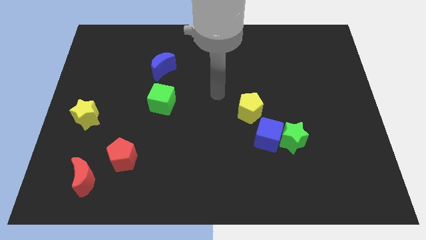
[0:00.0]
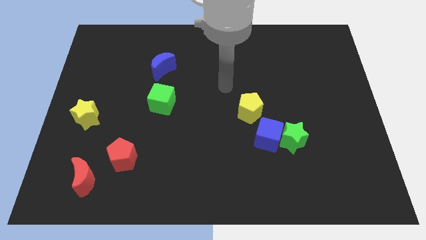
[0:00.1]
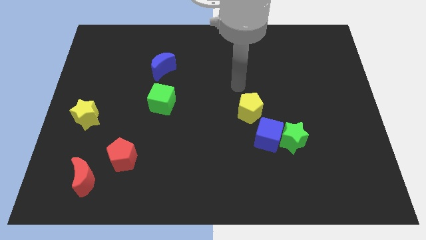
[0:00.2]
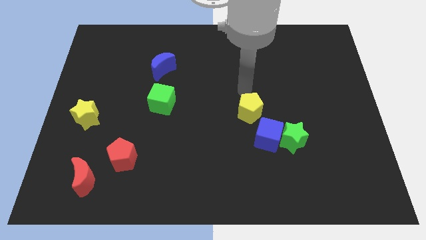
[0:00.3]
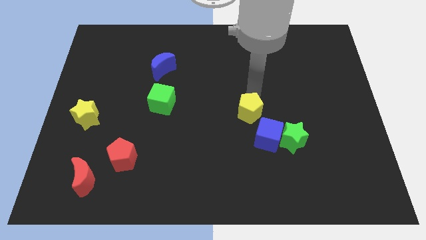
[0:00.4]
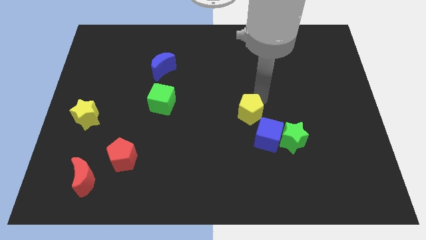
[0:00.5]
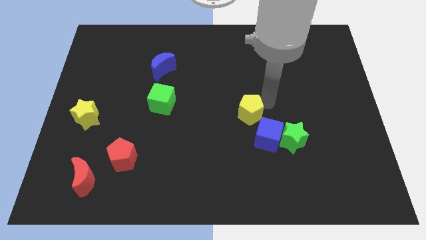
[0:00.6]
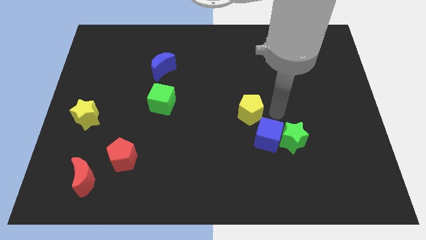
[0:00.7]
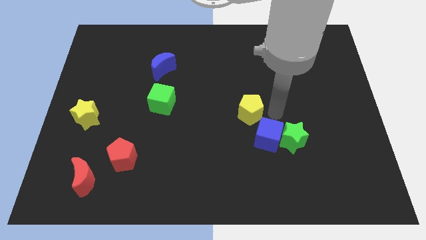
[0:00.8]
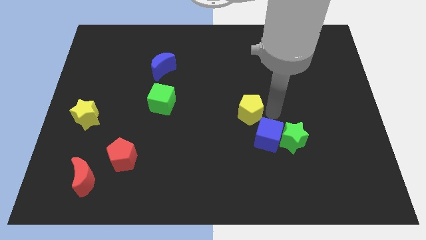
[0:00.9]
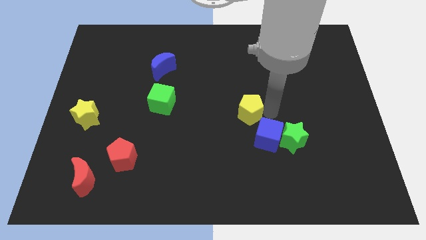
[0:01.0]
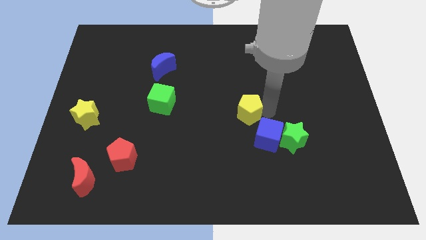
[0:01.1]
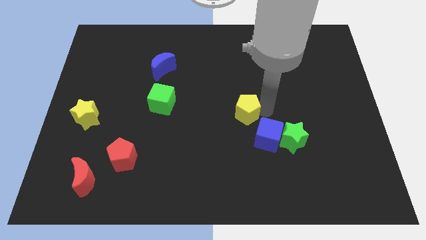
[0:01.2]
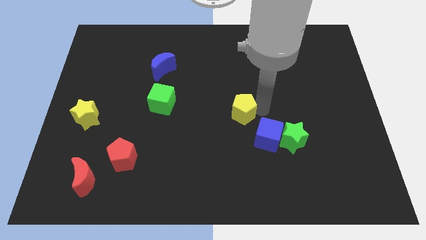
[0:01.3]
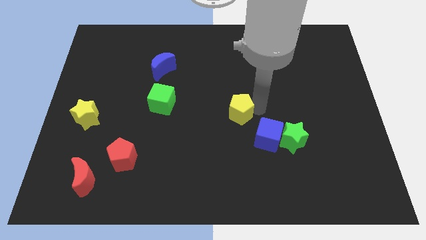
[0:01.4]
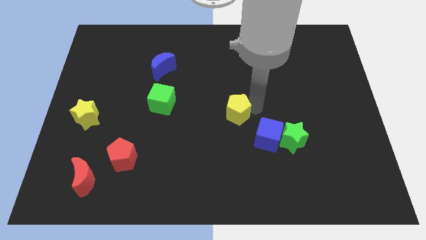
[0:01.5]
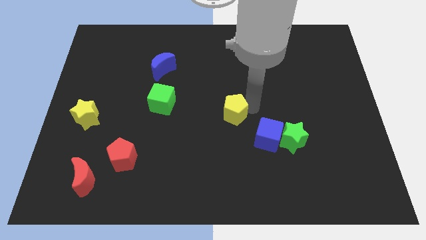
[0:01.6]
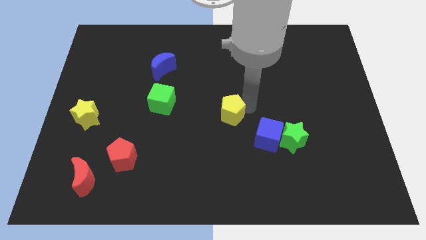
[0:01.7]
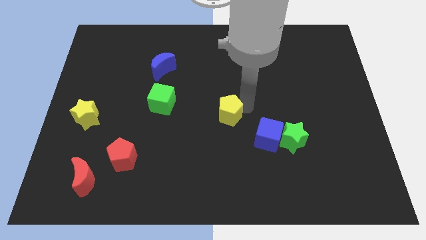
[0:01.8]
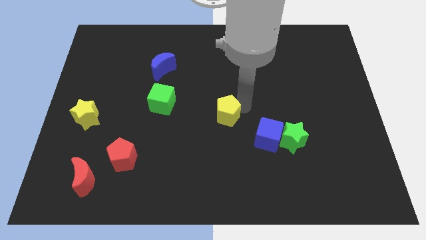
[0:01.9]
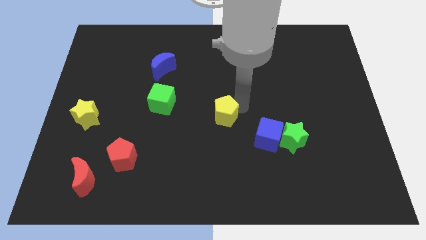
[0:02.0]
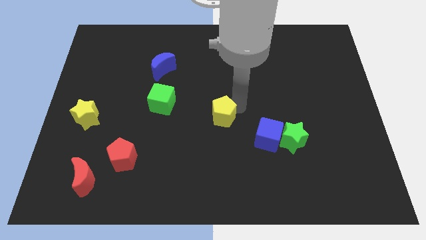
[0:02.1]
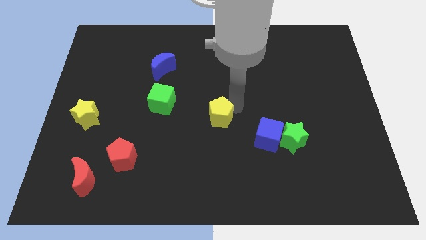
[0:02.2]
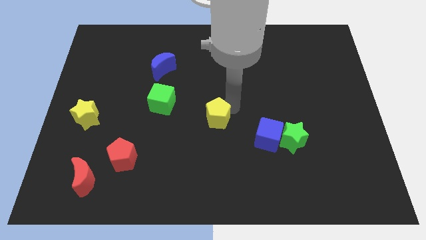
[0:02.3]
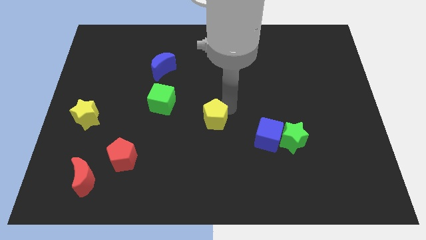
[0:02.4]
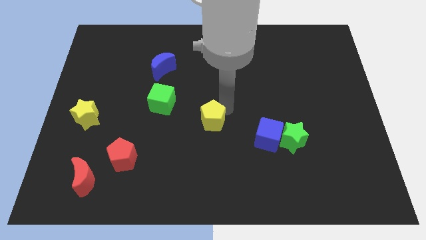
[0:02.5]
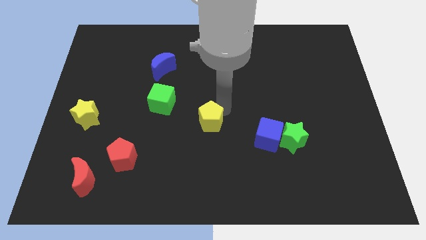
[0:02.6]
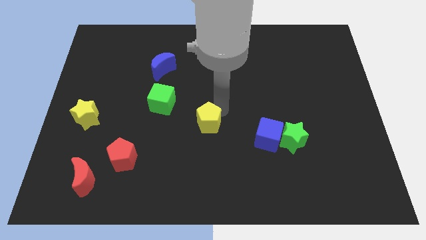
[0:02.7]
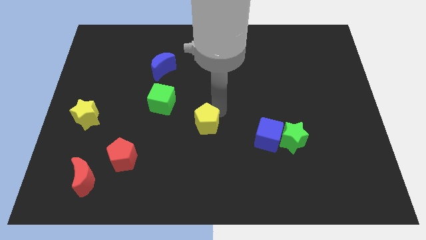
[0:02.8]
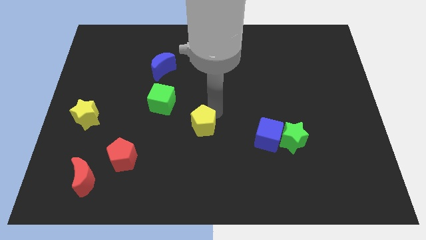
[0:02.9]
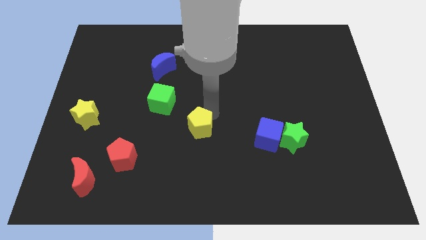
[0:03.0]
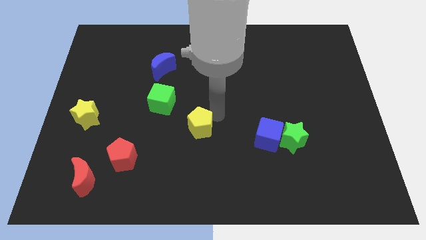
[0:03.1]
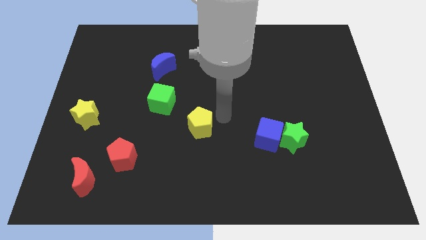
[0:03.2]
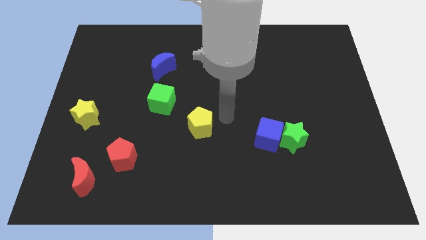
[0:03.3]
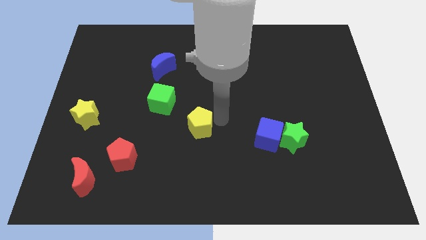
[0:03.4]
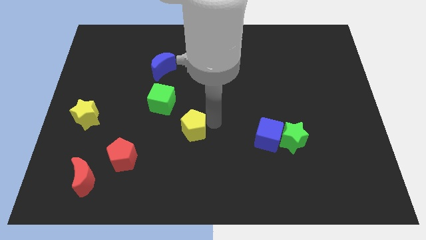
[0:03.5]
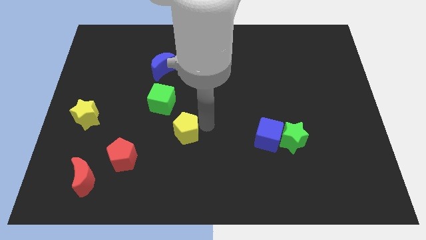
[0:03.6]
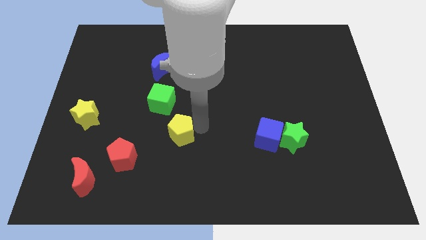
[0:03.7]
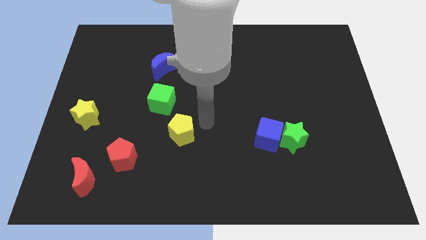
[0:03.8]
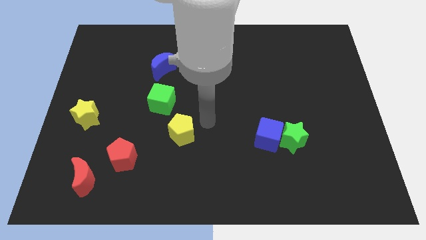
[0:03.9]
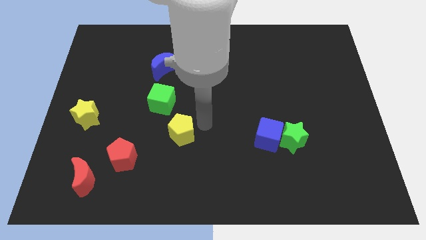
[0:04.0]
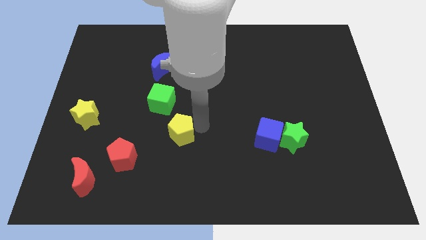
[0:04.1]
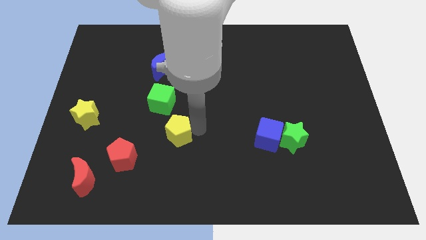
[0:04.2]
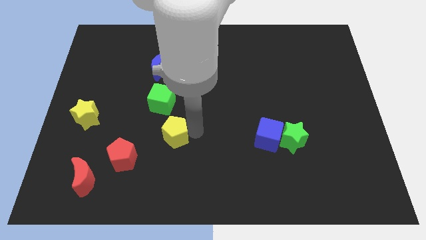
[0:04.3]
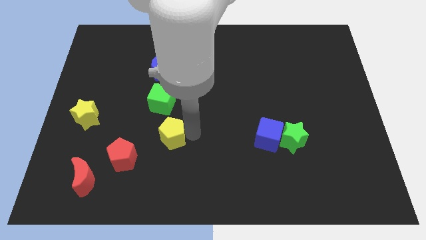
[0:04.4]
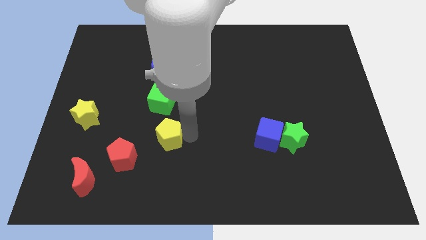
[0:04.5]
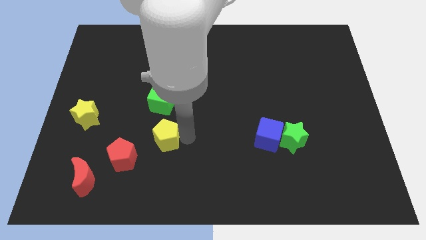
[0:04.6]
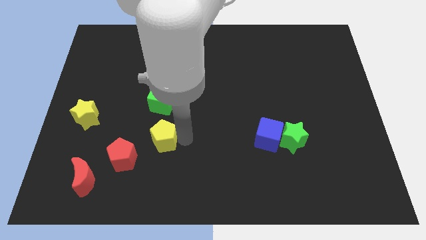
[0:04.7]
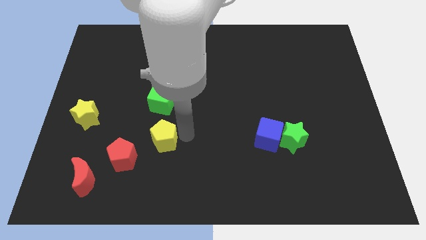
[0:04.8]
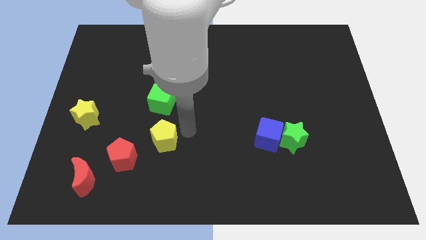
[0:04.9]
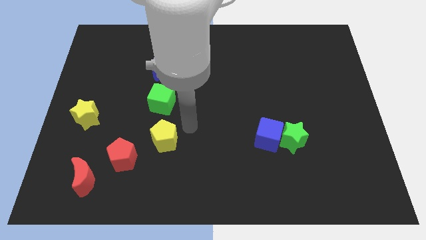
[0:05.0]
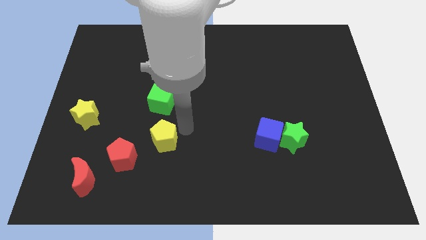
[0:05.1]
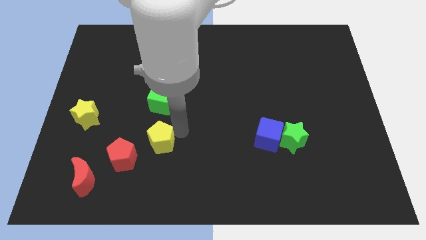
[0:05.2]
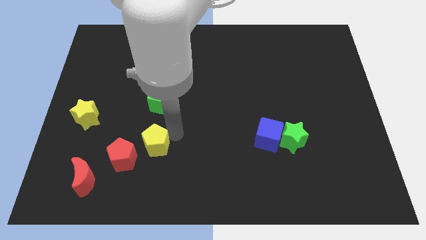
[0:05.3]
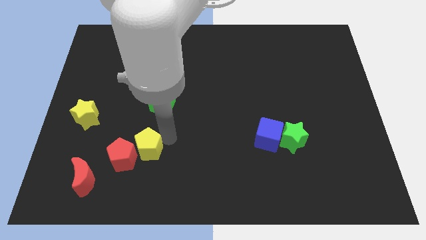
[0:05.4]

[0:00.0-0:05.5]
put the yellow pentagon to the red pentagon

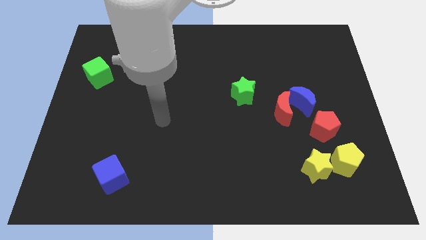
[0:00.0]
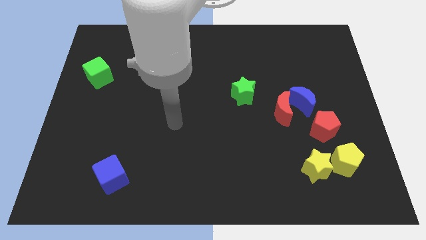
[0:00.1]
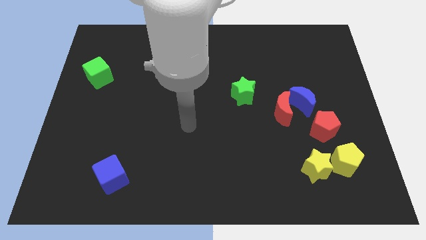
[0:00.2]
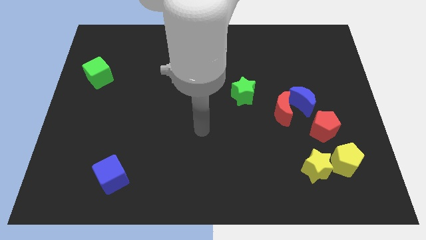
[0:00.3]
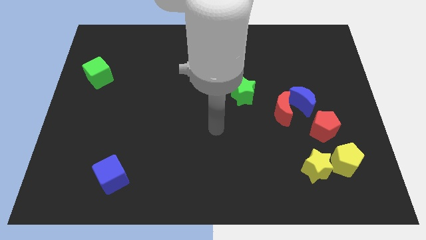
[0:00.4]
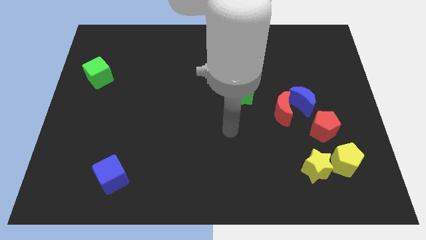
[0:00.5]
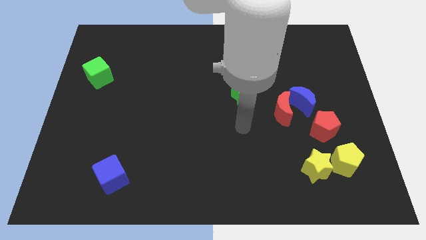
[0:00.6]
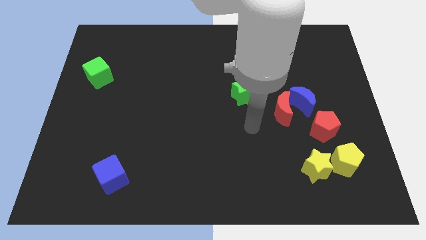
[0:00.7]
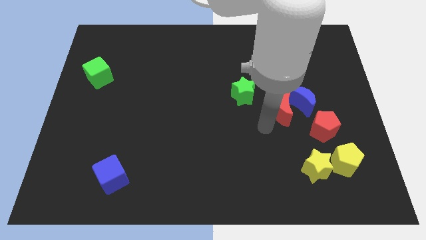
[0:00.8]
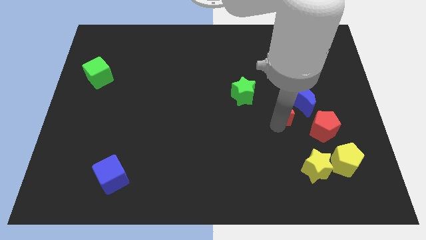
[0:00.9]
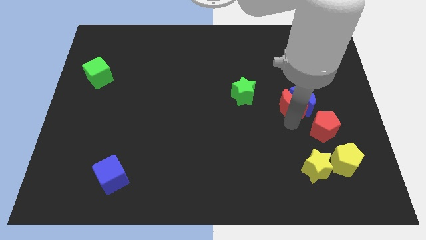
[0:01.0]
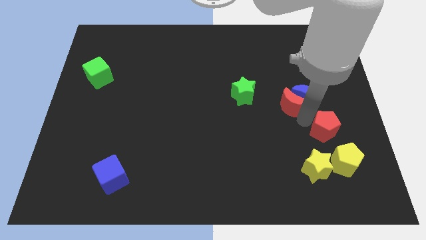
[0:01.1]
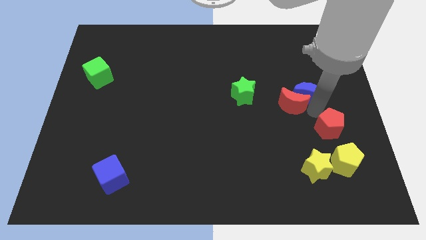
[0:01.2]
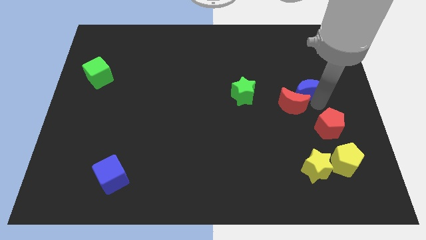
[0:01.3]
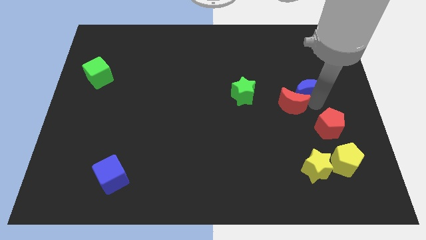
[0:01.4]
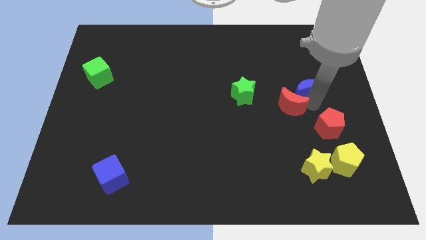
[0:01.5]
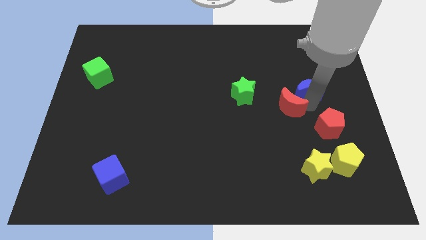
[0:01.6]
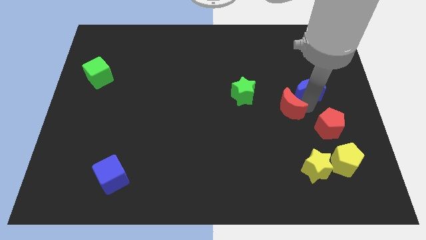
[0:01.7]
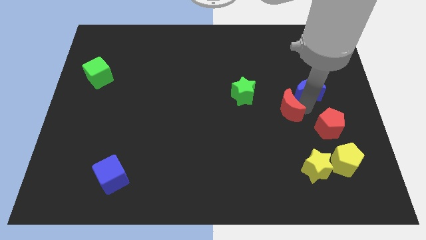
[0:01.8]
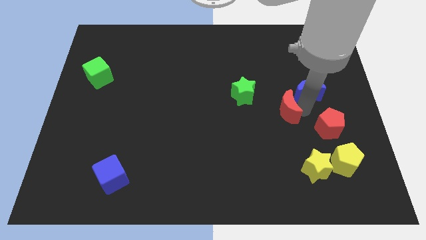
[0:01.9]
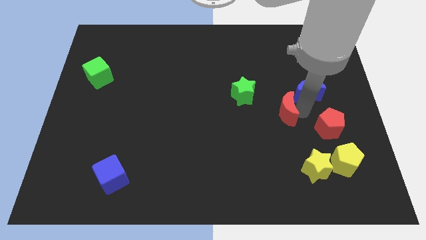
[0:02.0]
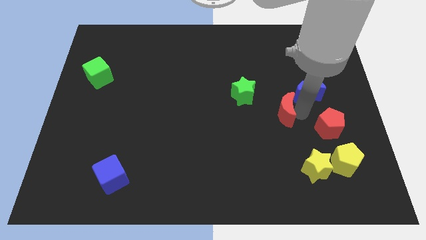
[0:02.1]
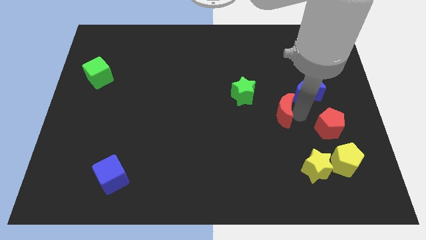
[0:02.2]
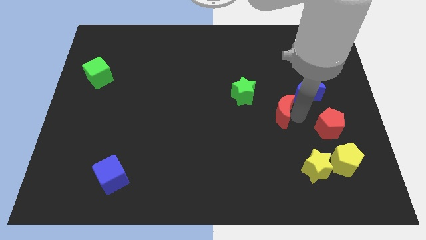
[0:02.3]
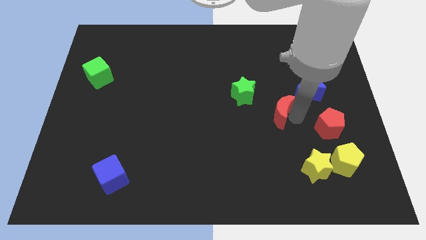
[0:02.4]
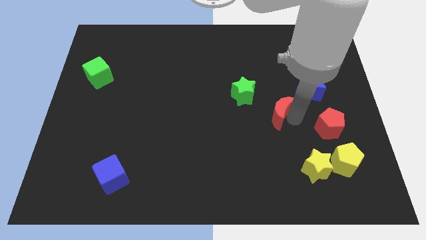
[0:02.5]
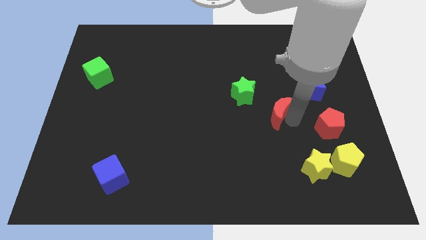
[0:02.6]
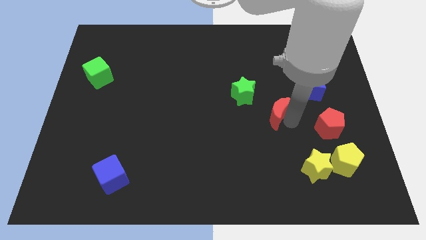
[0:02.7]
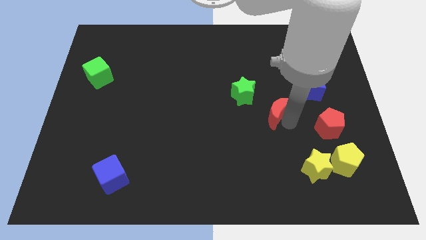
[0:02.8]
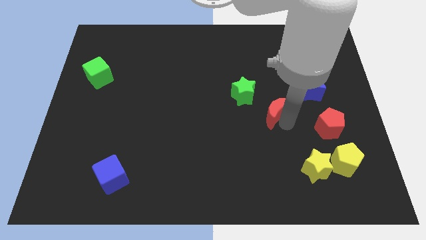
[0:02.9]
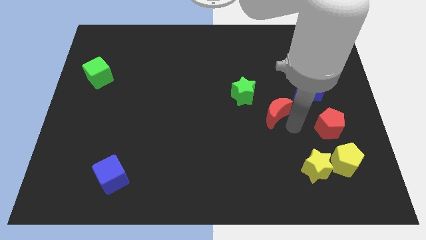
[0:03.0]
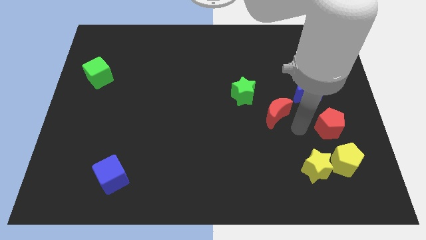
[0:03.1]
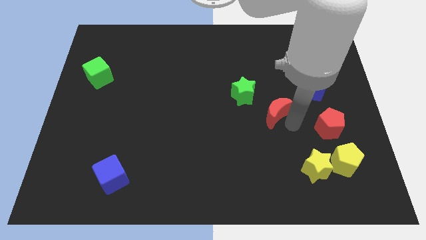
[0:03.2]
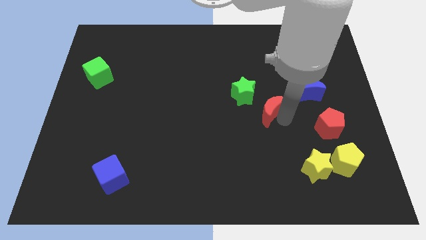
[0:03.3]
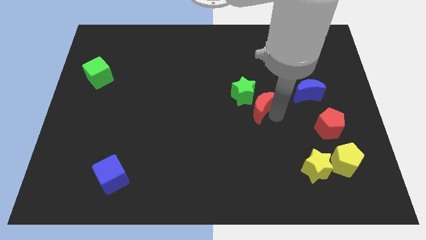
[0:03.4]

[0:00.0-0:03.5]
slide the red moon to the green star
